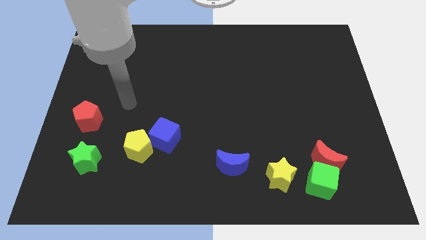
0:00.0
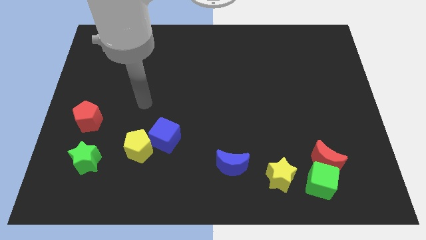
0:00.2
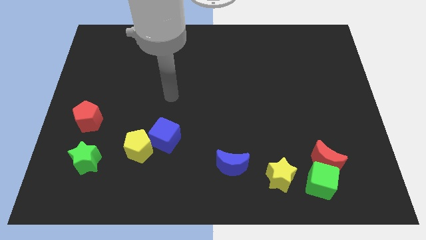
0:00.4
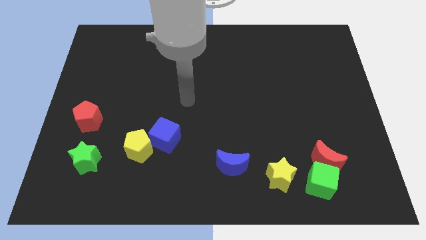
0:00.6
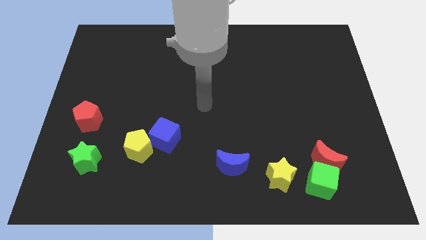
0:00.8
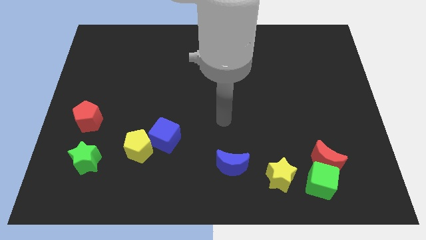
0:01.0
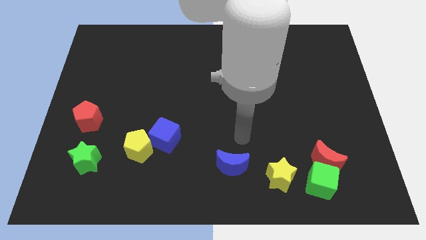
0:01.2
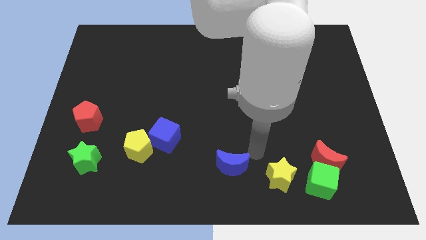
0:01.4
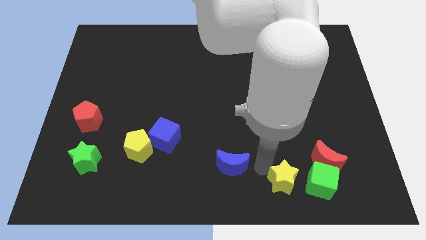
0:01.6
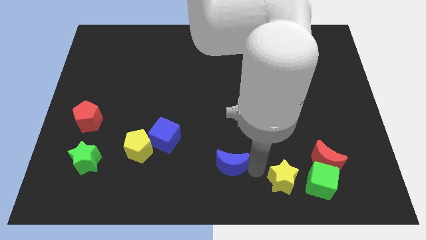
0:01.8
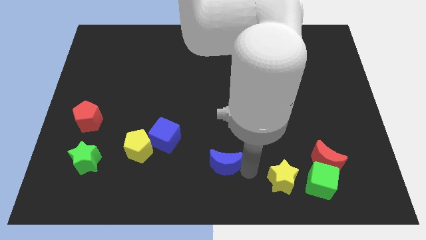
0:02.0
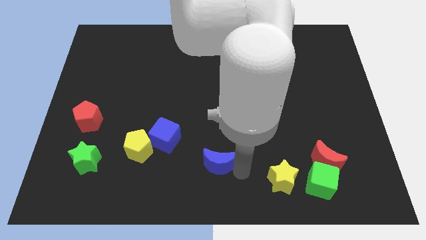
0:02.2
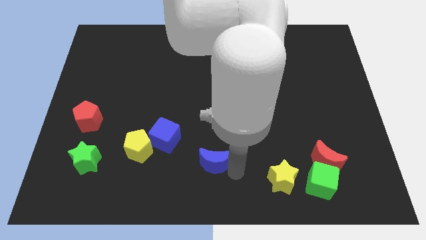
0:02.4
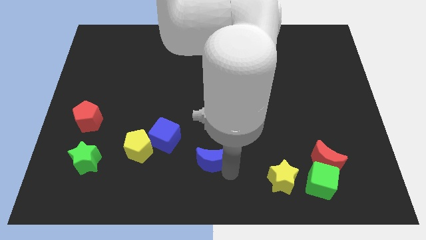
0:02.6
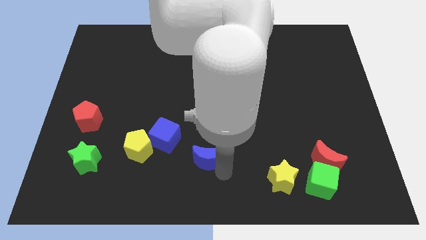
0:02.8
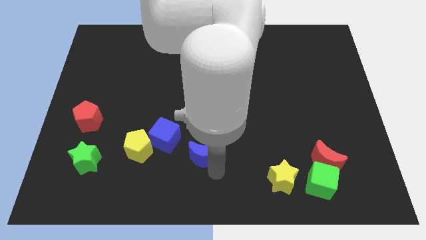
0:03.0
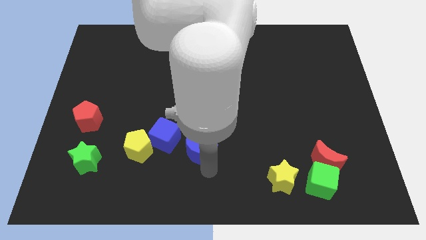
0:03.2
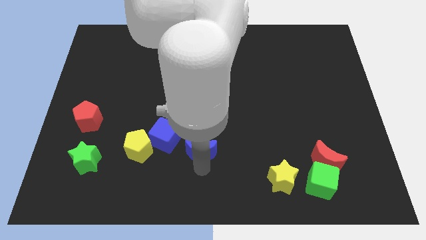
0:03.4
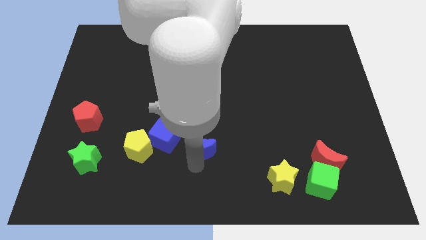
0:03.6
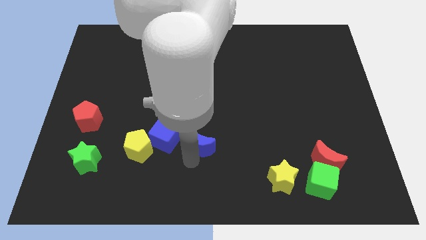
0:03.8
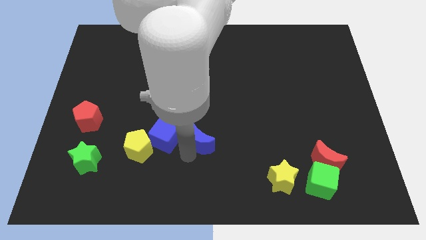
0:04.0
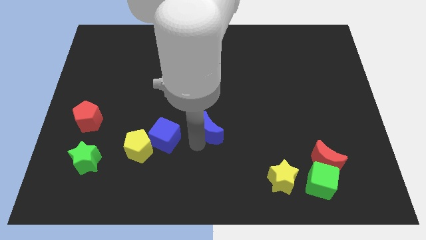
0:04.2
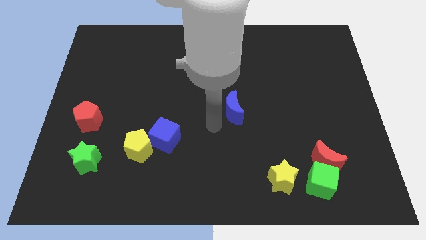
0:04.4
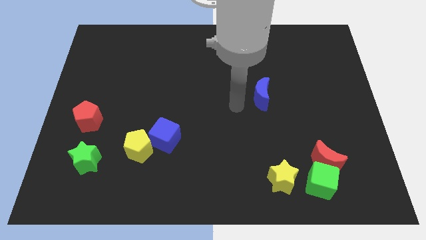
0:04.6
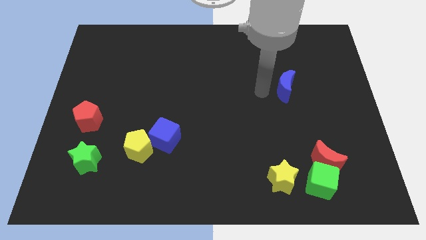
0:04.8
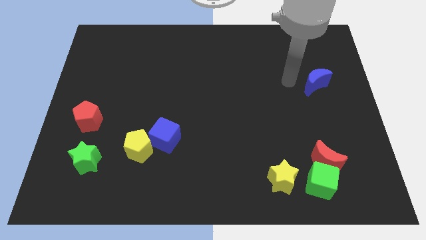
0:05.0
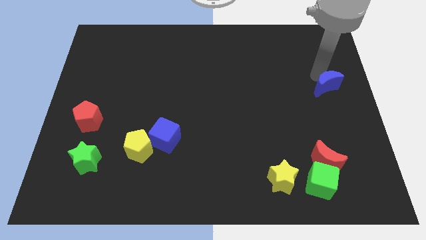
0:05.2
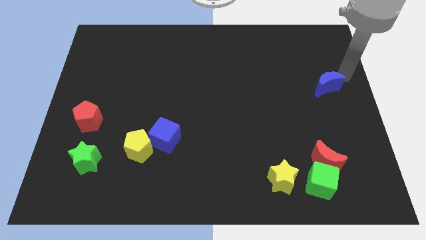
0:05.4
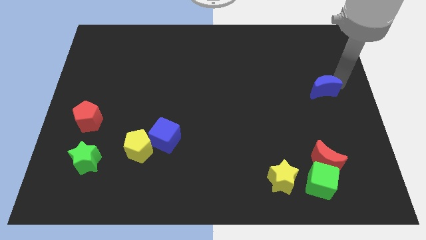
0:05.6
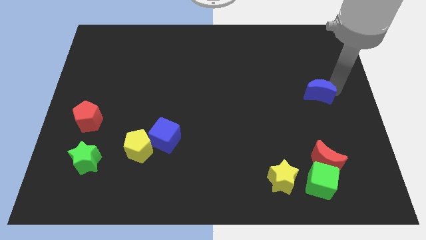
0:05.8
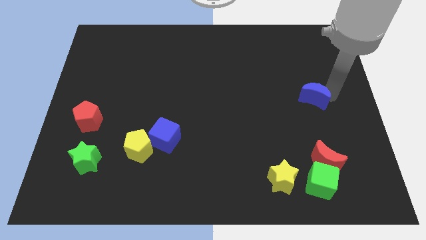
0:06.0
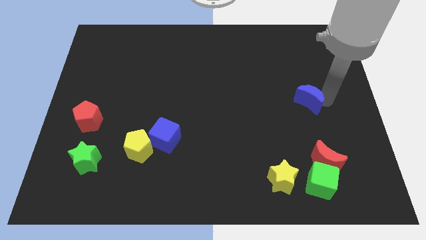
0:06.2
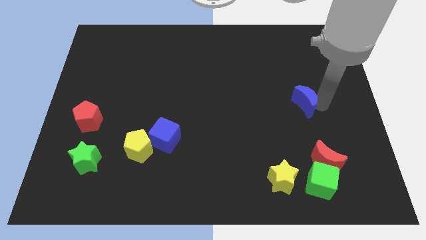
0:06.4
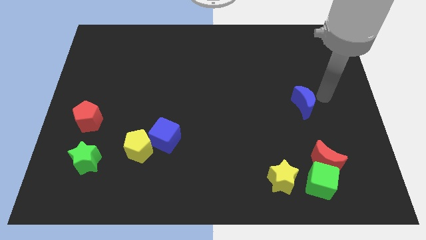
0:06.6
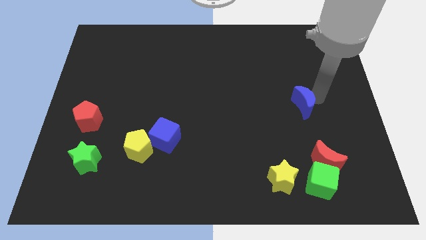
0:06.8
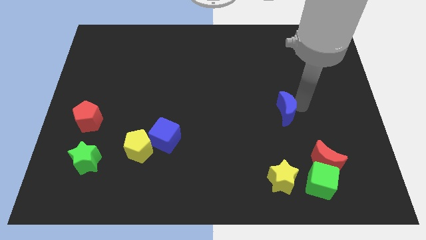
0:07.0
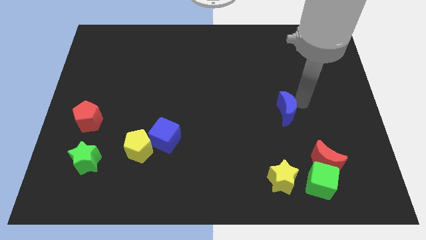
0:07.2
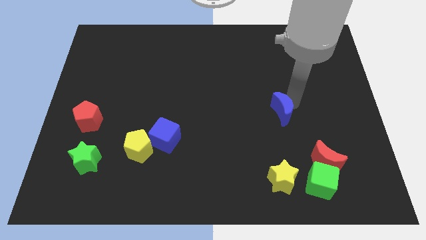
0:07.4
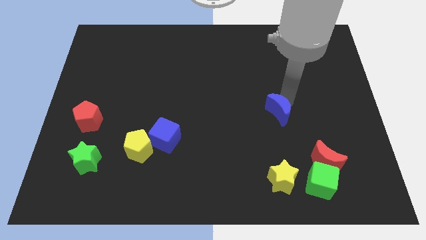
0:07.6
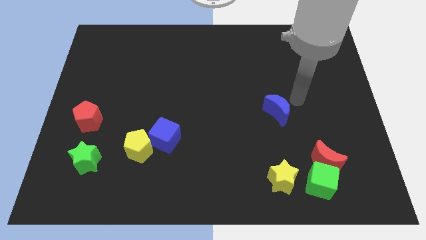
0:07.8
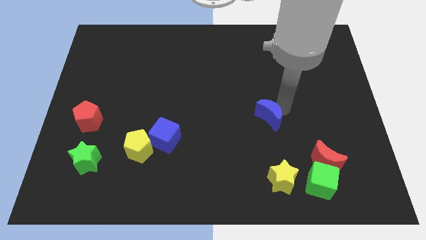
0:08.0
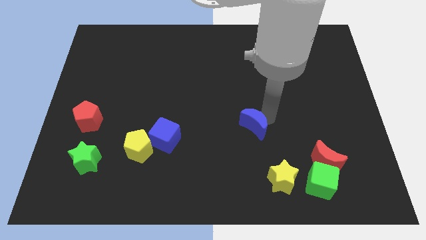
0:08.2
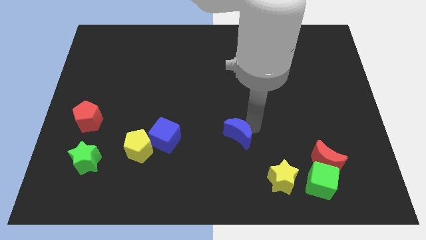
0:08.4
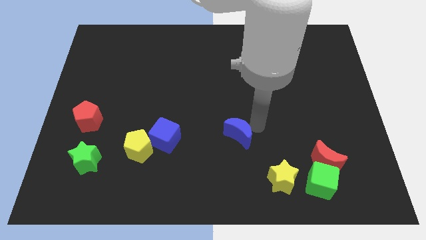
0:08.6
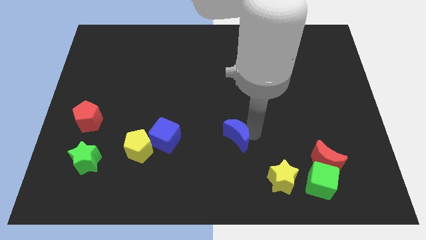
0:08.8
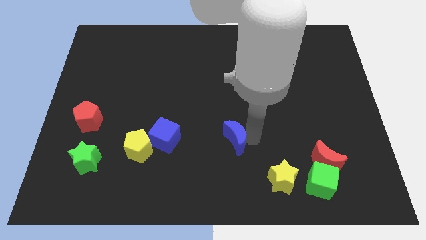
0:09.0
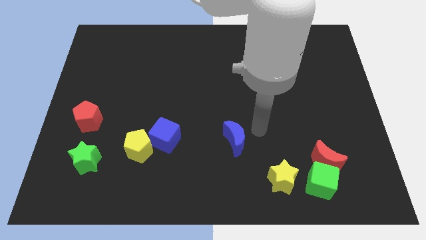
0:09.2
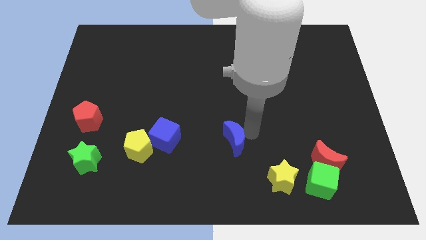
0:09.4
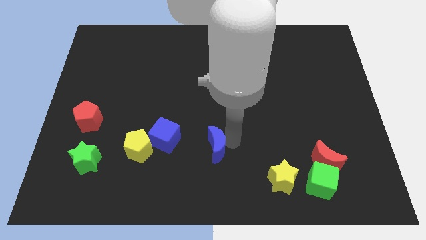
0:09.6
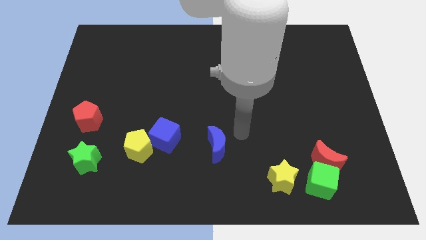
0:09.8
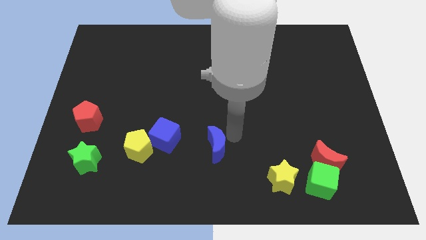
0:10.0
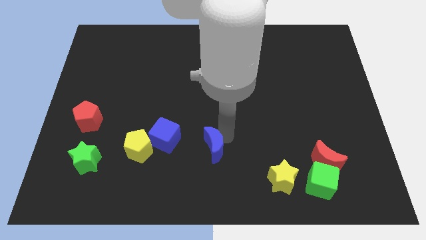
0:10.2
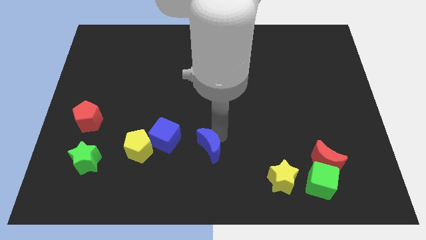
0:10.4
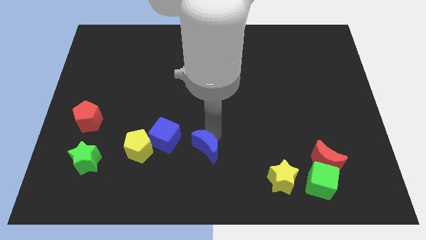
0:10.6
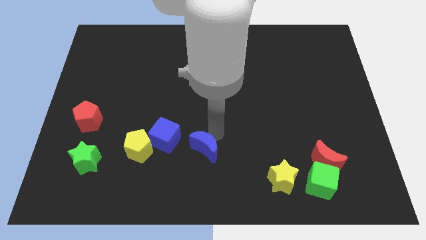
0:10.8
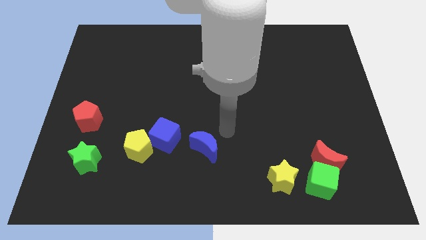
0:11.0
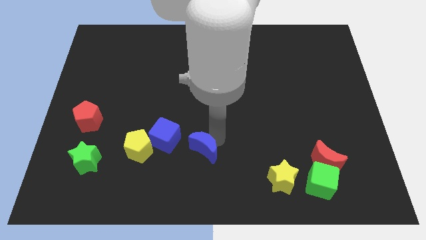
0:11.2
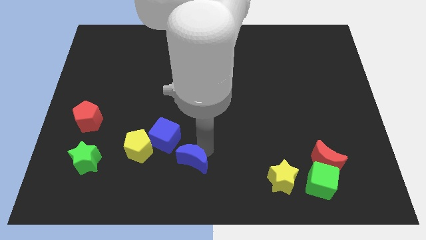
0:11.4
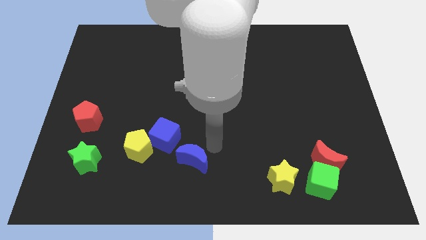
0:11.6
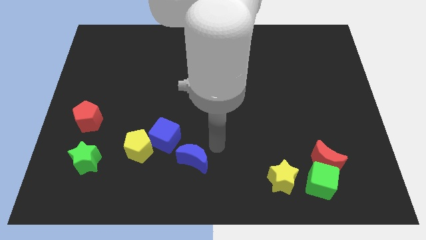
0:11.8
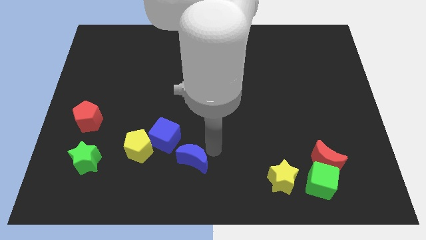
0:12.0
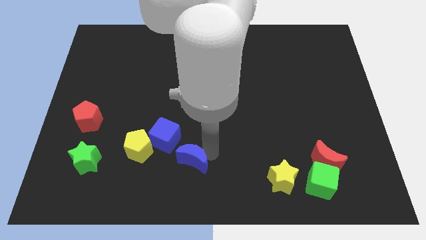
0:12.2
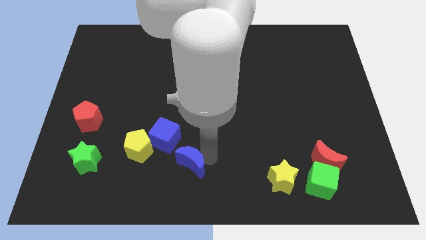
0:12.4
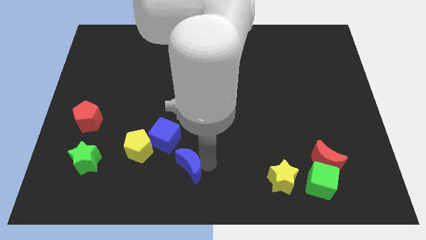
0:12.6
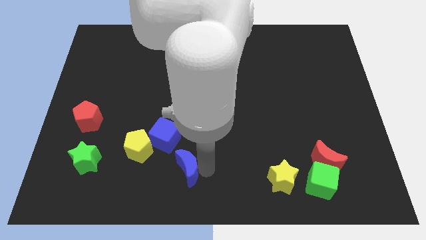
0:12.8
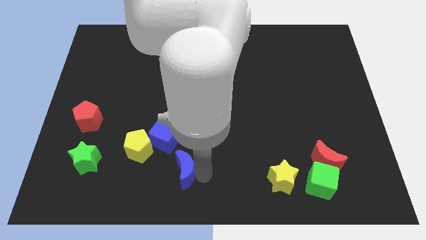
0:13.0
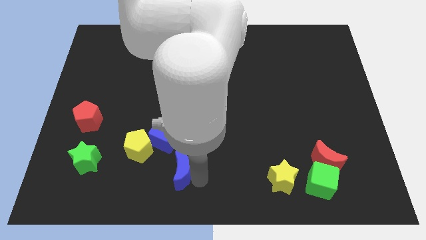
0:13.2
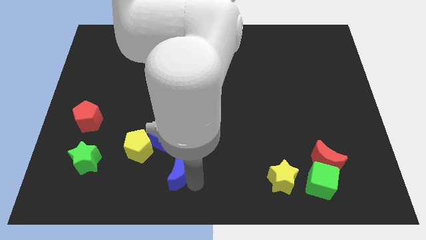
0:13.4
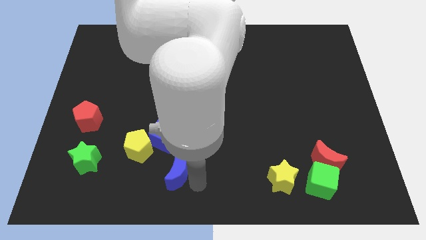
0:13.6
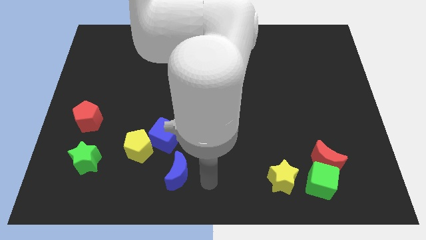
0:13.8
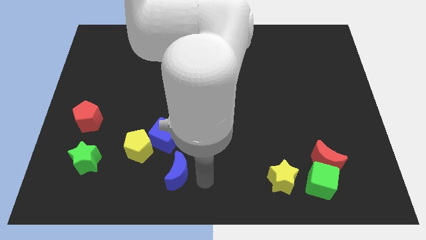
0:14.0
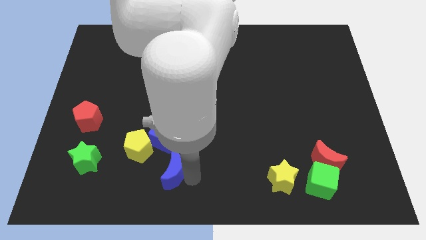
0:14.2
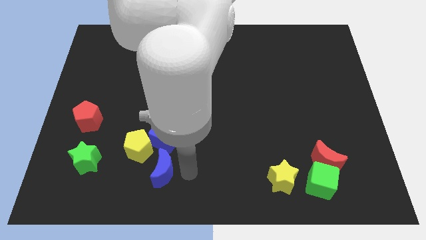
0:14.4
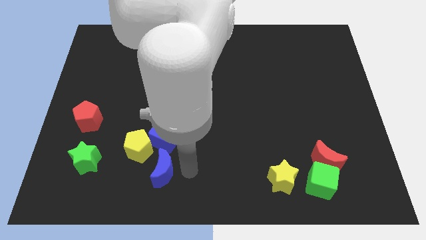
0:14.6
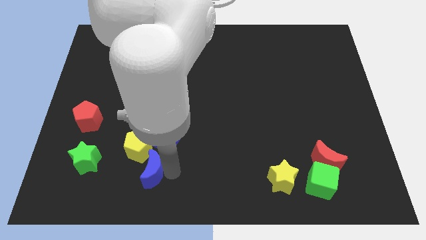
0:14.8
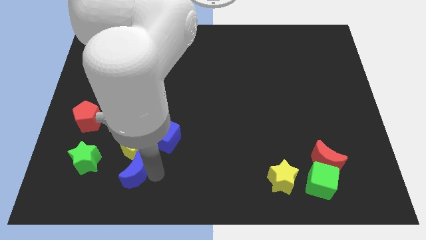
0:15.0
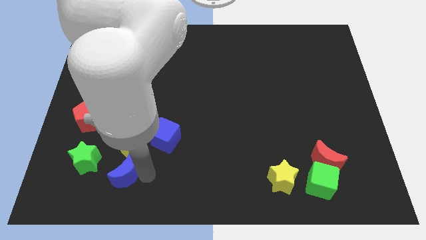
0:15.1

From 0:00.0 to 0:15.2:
move the blue moon to the bottom left of the yellow pentagon

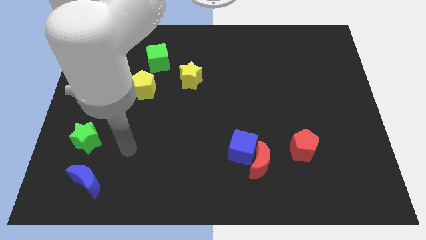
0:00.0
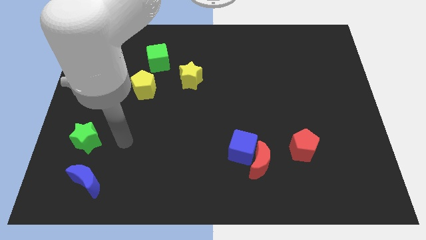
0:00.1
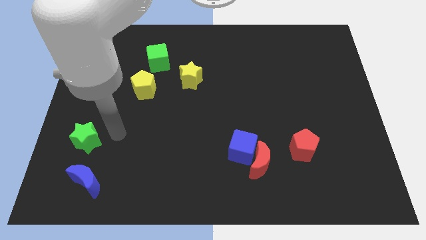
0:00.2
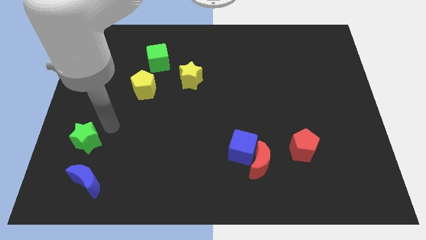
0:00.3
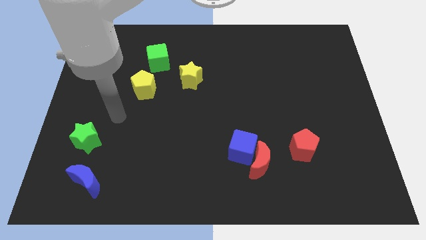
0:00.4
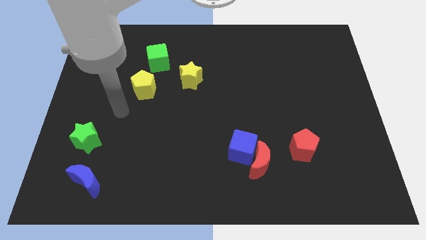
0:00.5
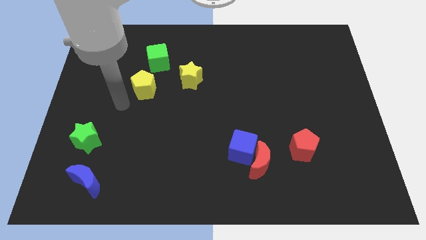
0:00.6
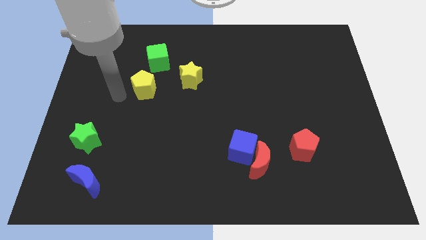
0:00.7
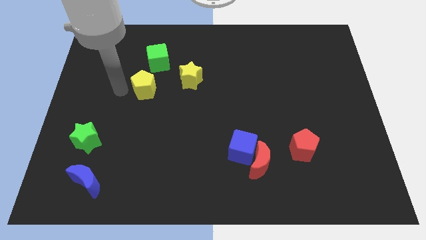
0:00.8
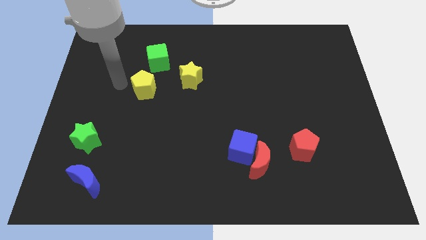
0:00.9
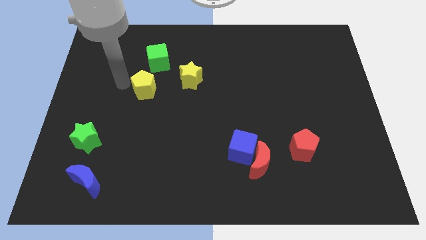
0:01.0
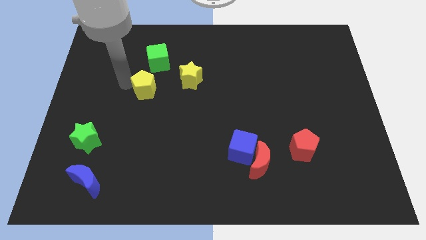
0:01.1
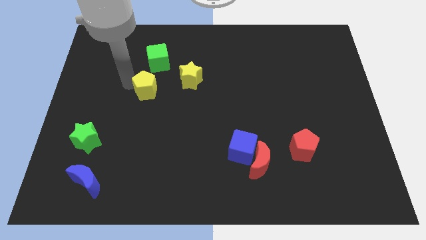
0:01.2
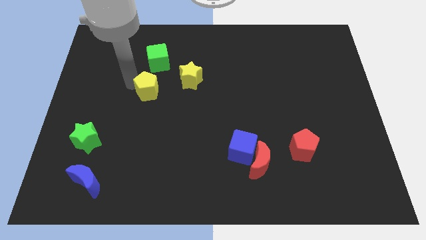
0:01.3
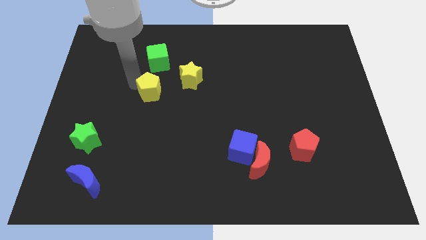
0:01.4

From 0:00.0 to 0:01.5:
put the yellow pentagon to the bottom left side of the yellow star
